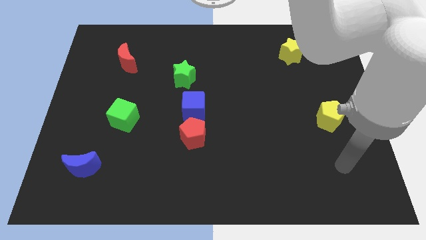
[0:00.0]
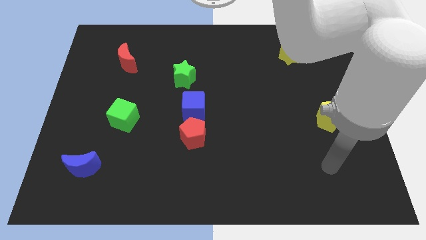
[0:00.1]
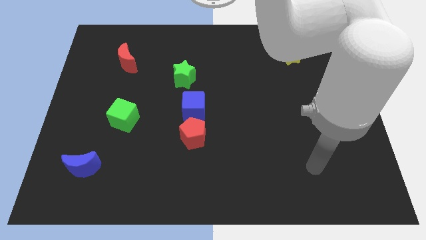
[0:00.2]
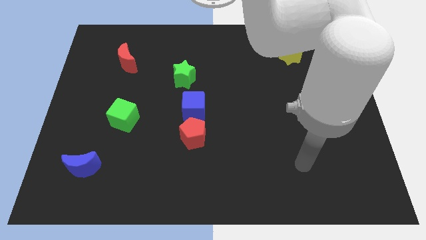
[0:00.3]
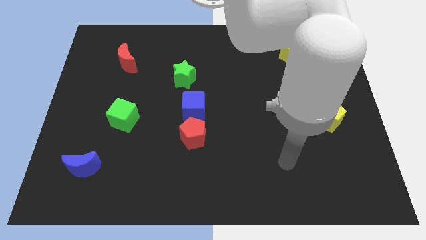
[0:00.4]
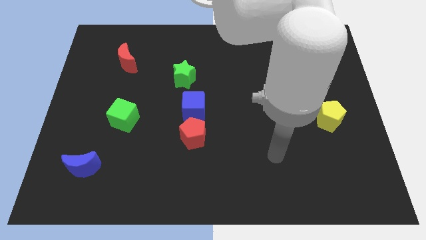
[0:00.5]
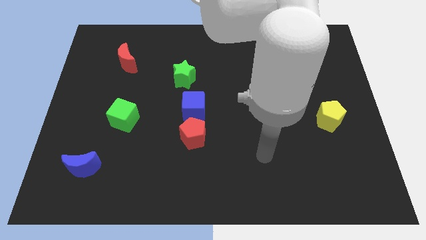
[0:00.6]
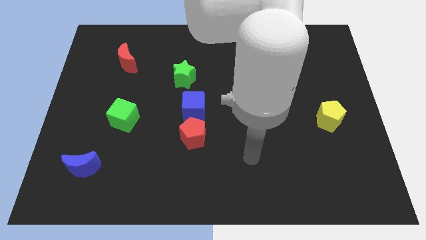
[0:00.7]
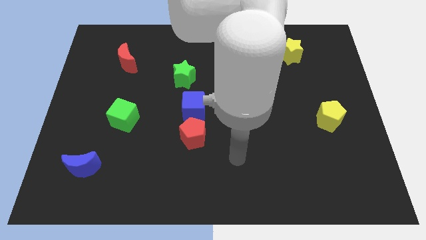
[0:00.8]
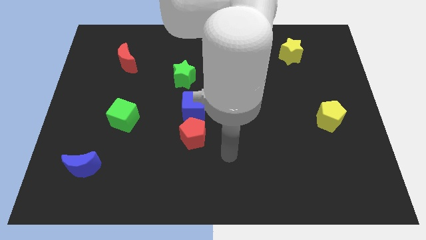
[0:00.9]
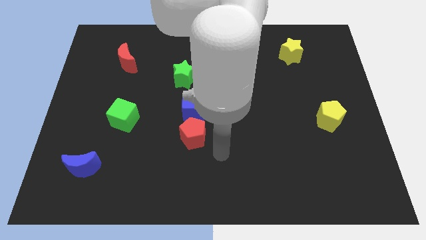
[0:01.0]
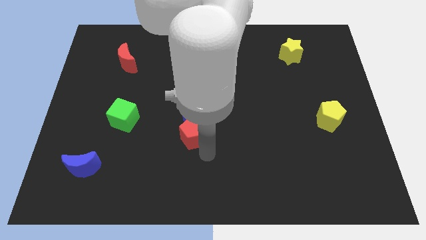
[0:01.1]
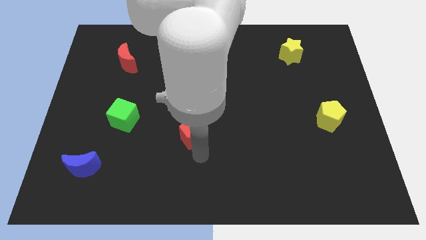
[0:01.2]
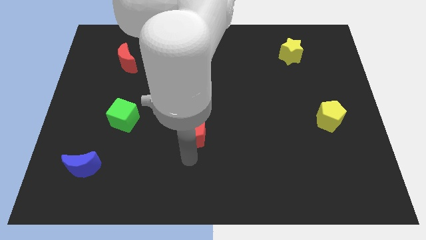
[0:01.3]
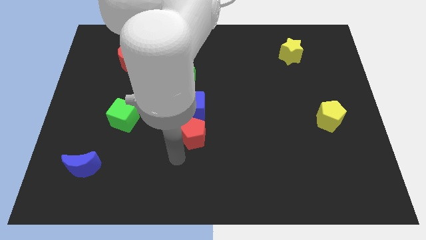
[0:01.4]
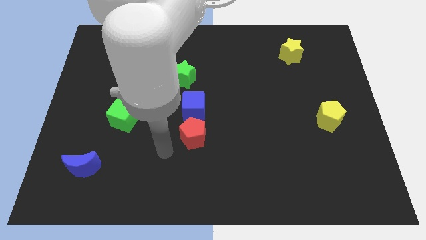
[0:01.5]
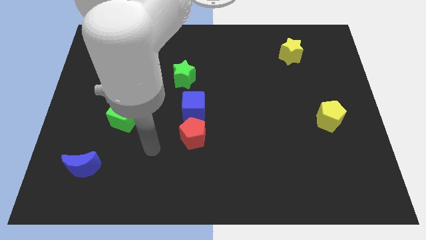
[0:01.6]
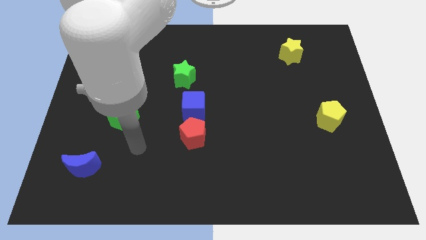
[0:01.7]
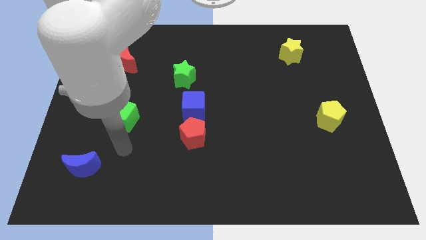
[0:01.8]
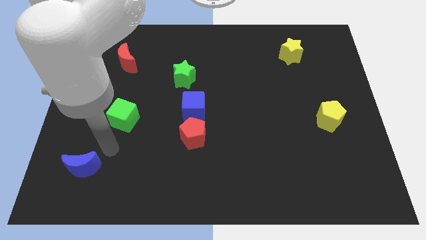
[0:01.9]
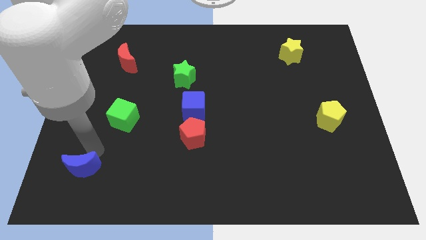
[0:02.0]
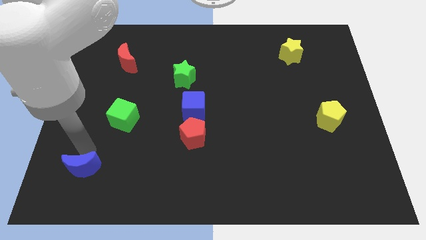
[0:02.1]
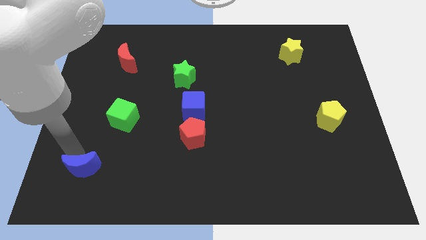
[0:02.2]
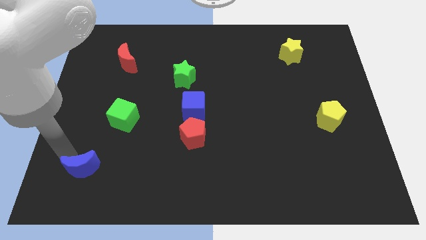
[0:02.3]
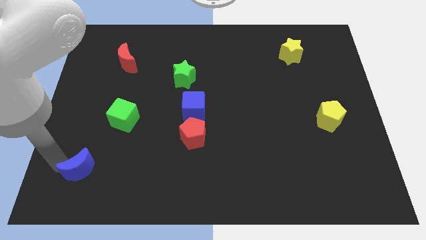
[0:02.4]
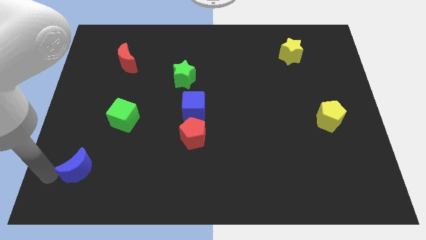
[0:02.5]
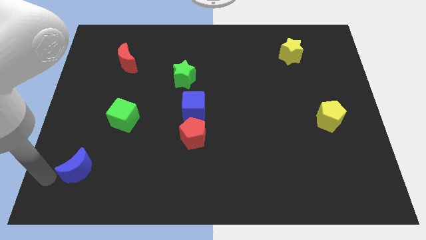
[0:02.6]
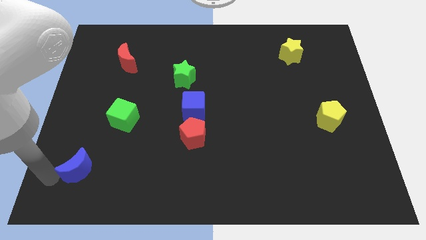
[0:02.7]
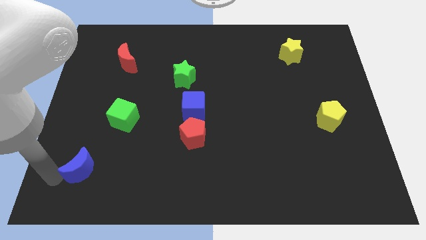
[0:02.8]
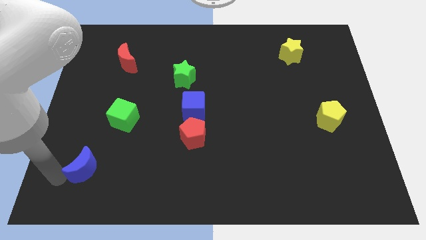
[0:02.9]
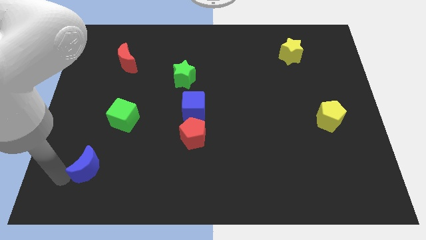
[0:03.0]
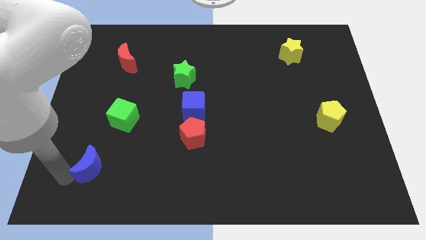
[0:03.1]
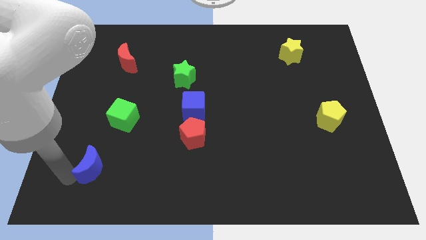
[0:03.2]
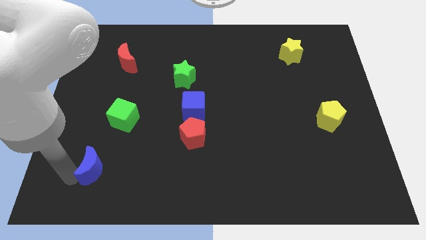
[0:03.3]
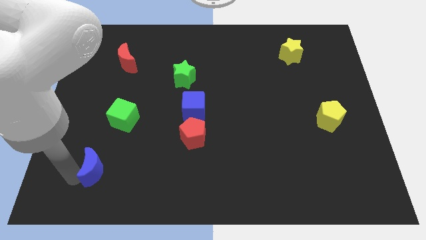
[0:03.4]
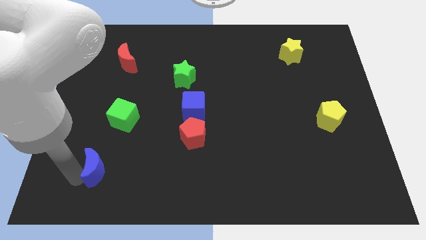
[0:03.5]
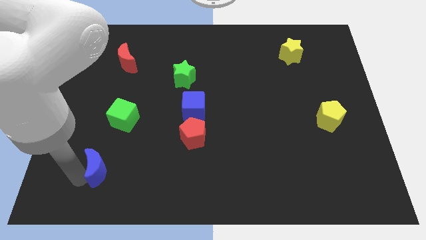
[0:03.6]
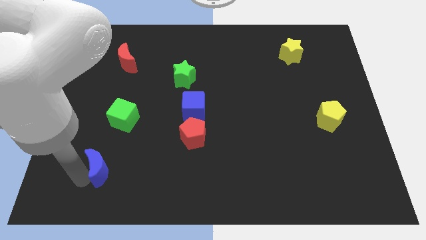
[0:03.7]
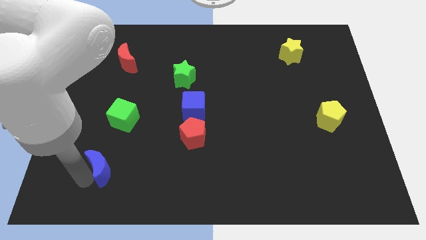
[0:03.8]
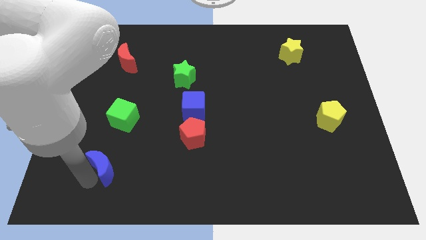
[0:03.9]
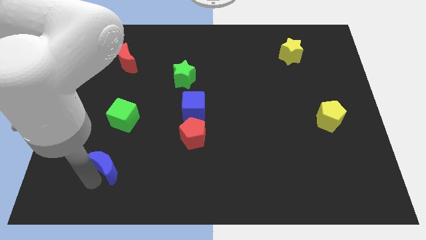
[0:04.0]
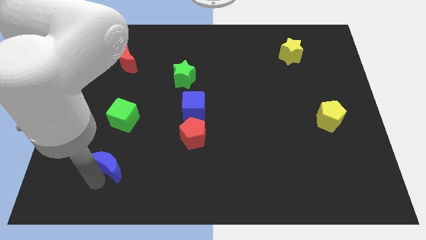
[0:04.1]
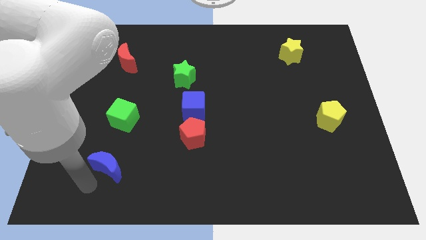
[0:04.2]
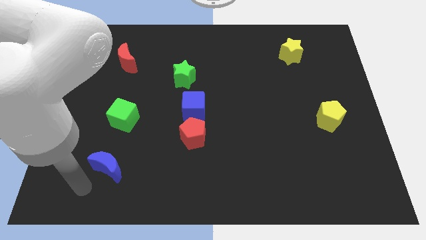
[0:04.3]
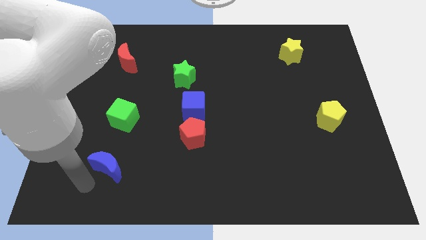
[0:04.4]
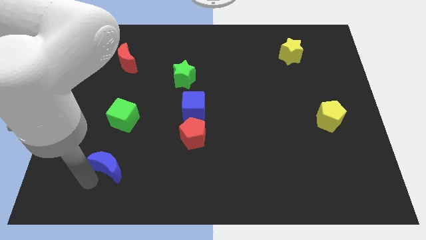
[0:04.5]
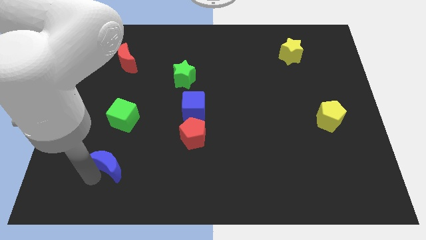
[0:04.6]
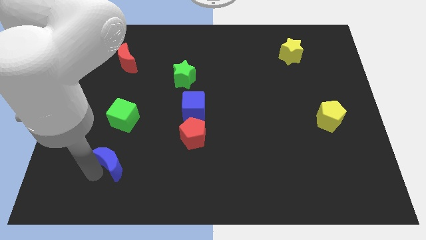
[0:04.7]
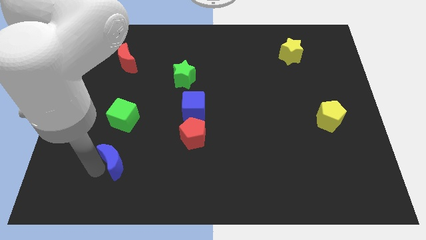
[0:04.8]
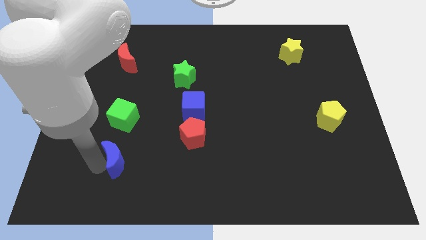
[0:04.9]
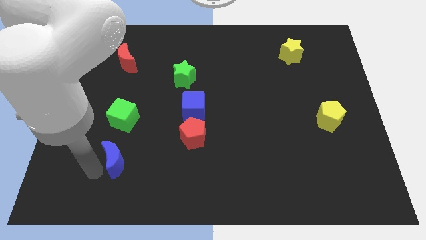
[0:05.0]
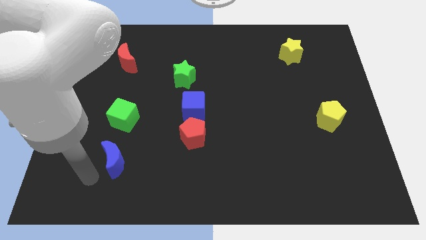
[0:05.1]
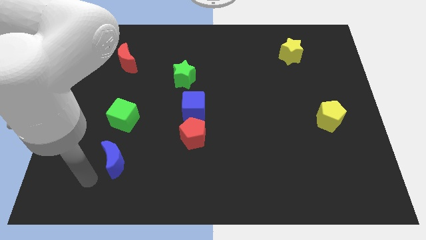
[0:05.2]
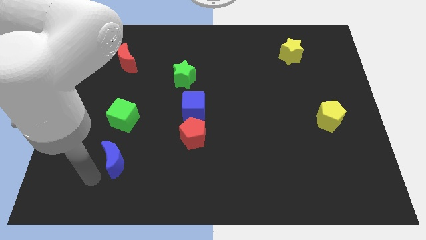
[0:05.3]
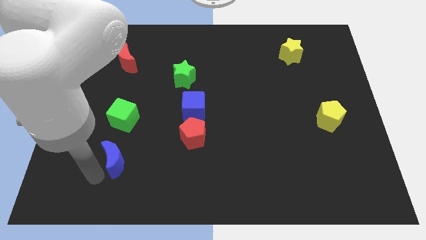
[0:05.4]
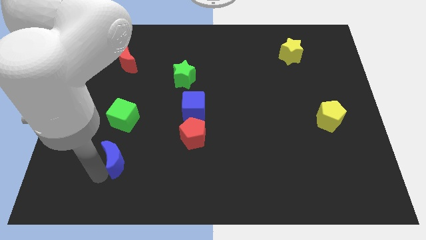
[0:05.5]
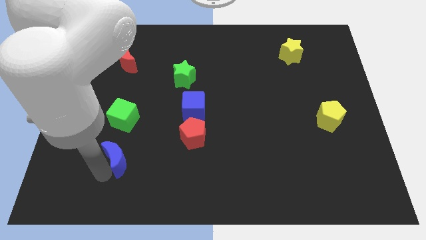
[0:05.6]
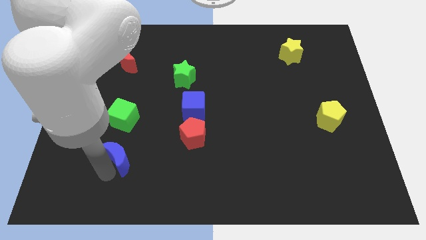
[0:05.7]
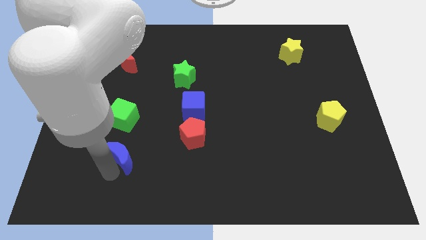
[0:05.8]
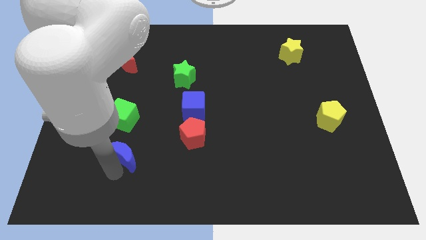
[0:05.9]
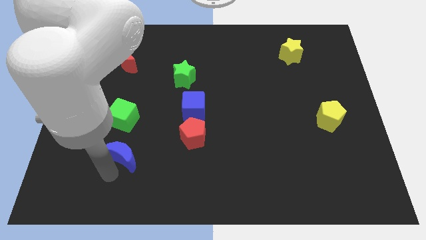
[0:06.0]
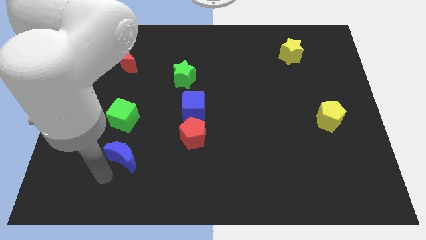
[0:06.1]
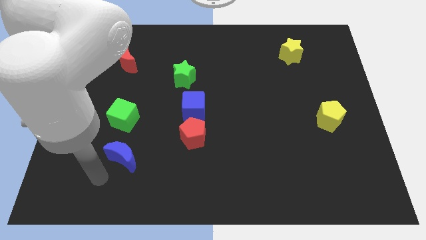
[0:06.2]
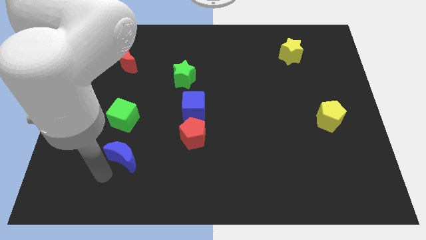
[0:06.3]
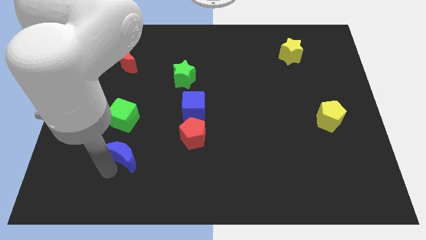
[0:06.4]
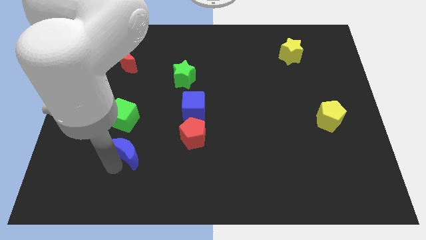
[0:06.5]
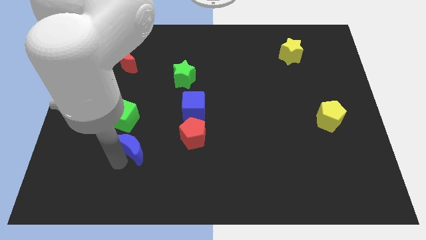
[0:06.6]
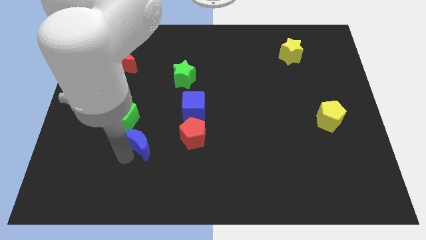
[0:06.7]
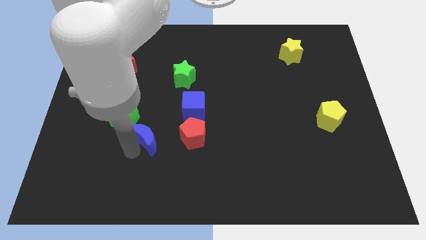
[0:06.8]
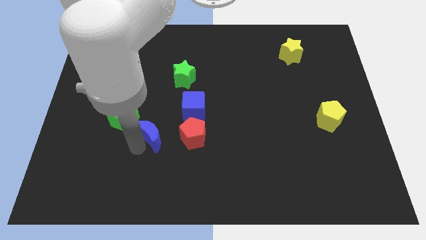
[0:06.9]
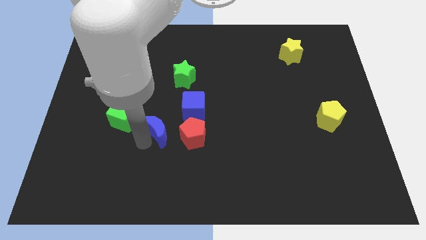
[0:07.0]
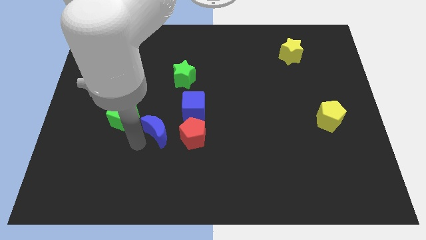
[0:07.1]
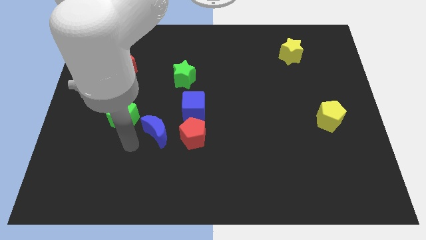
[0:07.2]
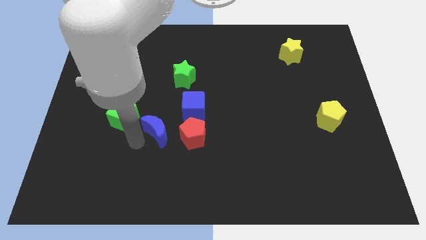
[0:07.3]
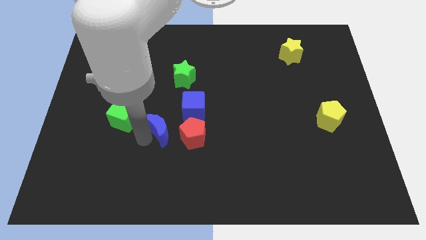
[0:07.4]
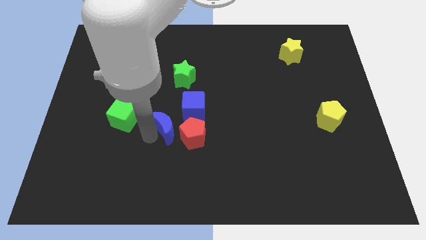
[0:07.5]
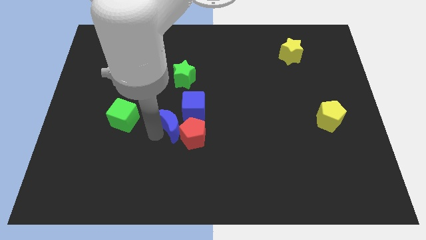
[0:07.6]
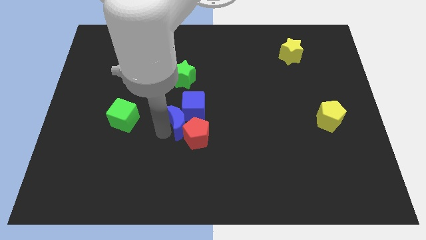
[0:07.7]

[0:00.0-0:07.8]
slide the blue moon next to the blue cube
